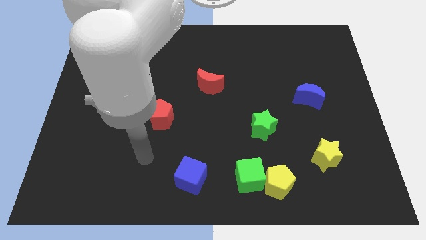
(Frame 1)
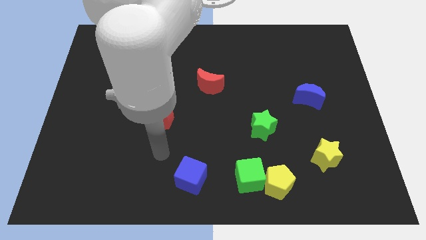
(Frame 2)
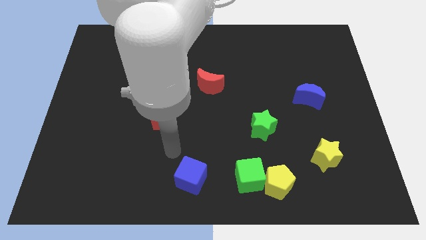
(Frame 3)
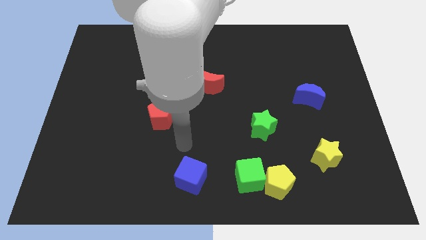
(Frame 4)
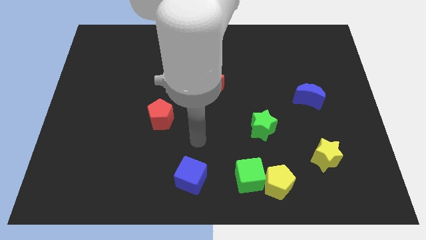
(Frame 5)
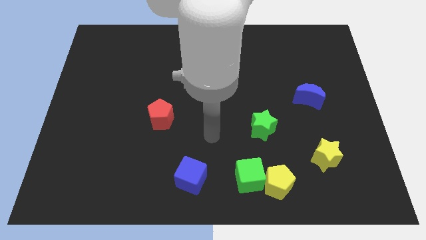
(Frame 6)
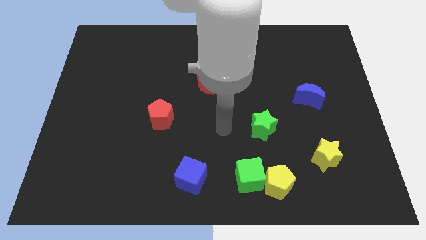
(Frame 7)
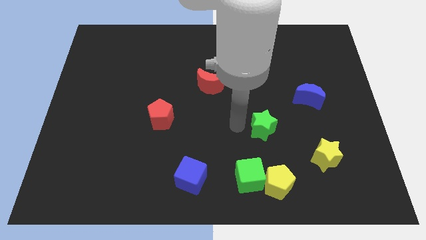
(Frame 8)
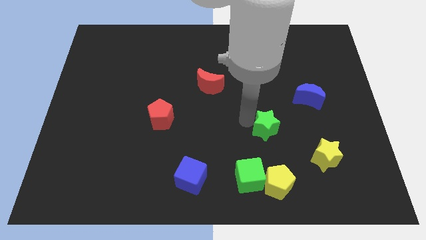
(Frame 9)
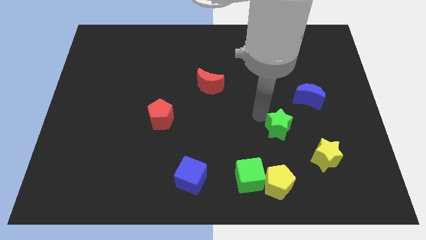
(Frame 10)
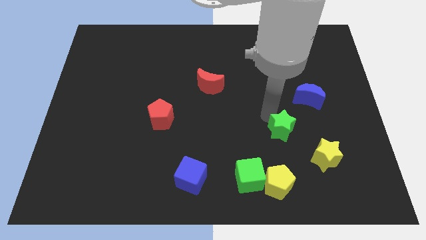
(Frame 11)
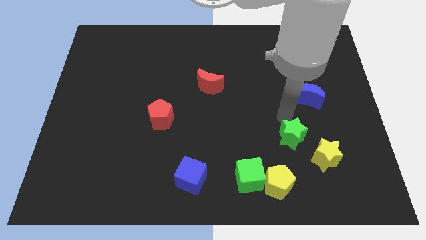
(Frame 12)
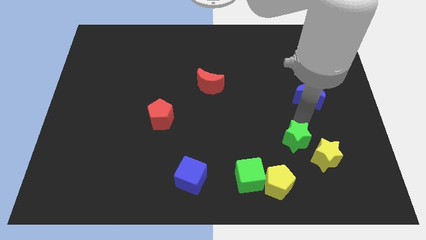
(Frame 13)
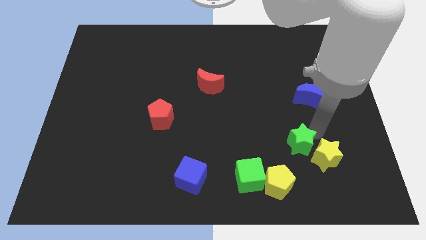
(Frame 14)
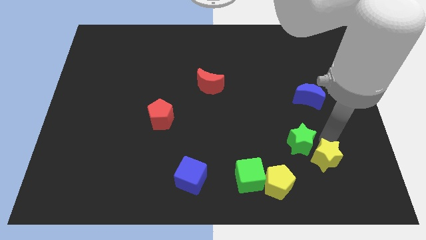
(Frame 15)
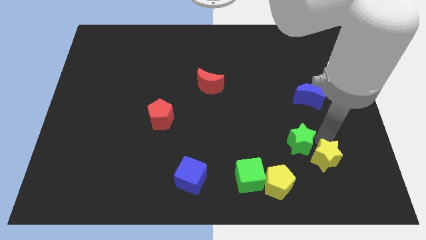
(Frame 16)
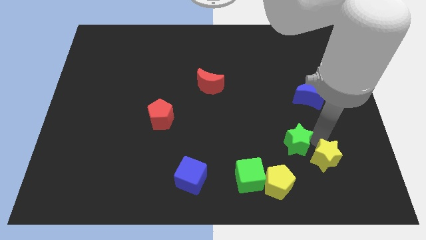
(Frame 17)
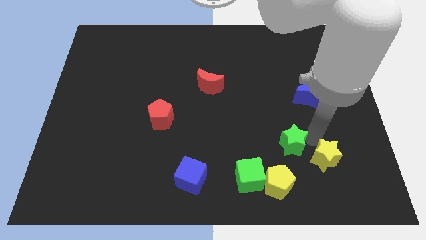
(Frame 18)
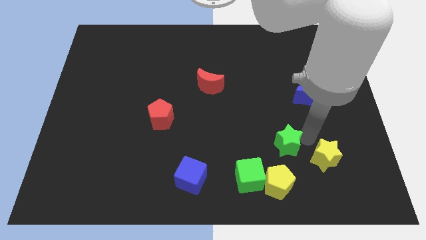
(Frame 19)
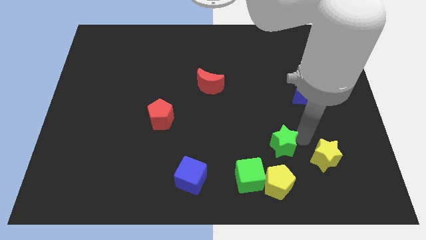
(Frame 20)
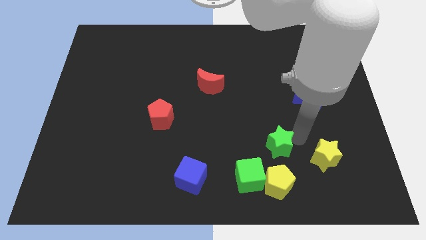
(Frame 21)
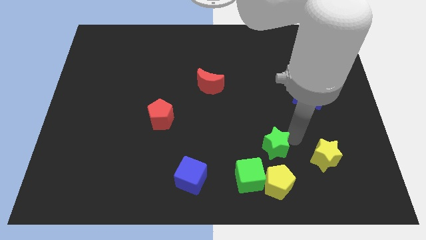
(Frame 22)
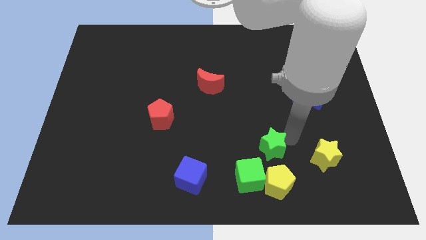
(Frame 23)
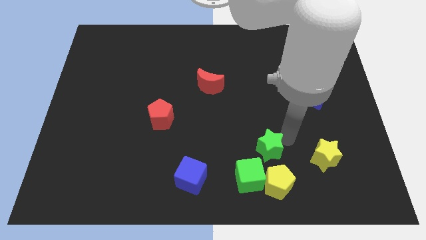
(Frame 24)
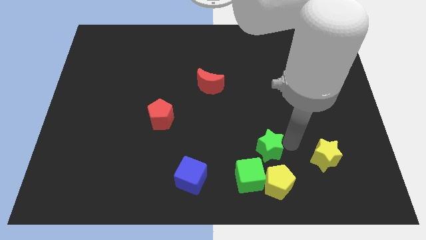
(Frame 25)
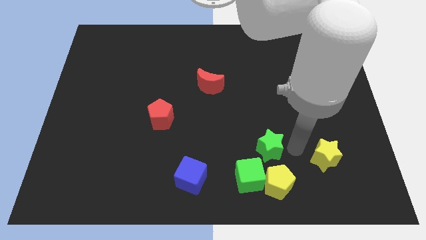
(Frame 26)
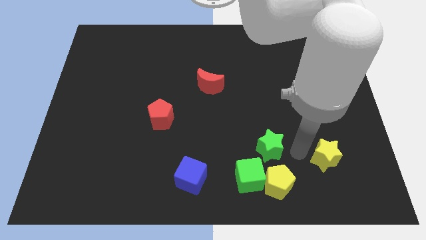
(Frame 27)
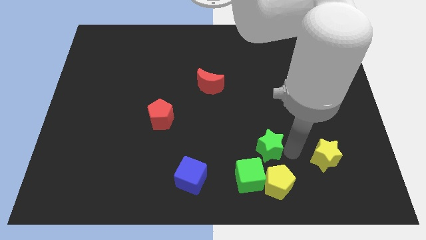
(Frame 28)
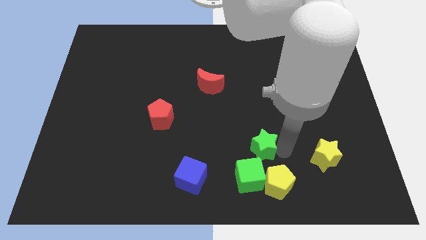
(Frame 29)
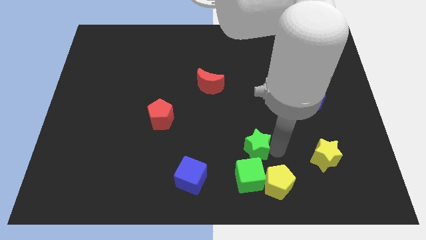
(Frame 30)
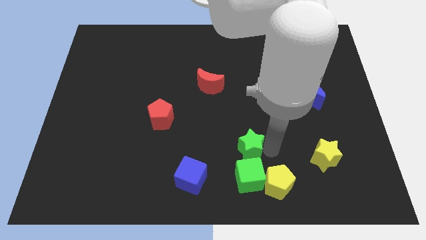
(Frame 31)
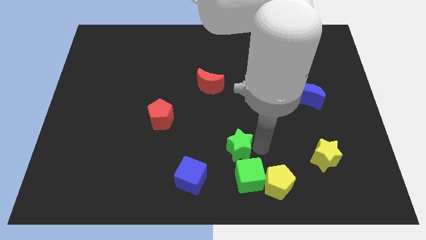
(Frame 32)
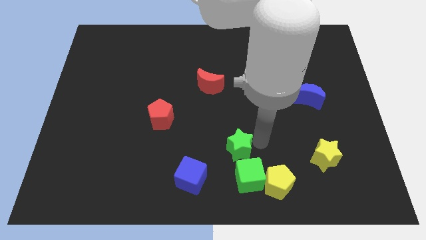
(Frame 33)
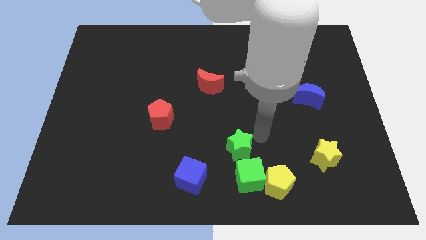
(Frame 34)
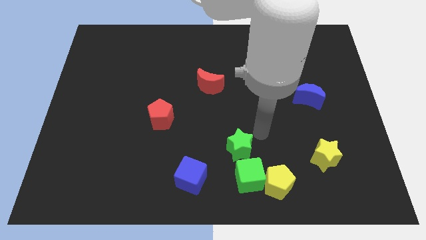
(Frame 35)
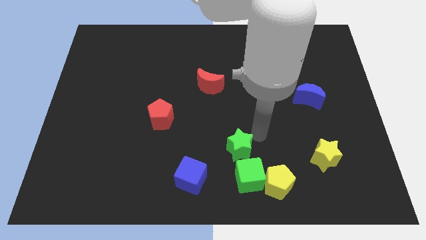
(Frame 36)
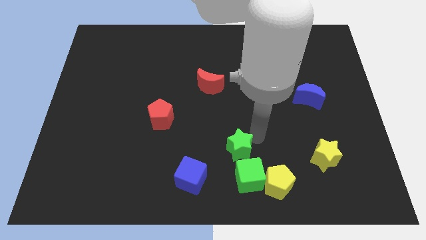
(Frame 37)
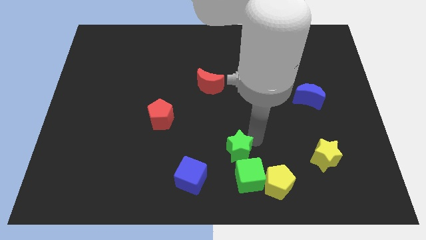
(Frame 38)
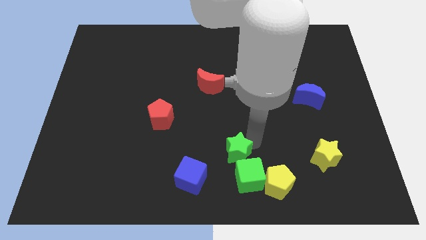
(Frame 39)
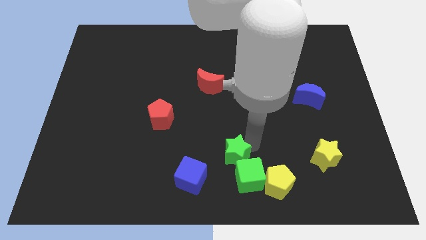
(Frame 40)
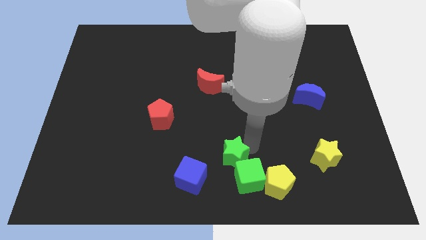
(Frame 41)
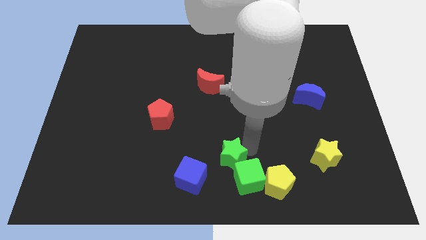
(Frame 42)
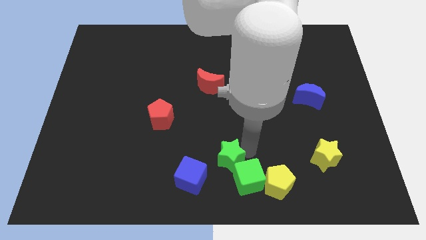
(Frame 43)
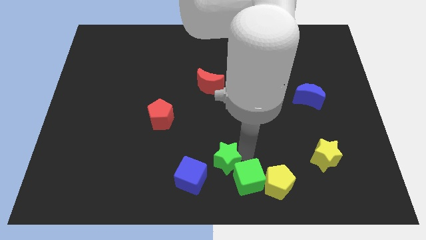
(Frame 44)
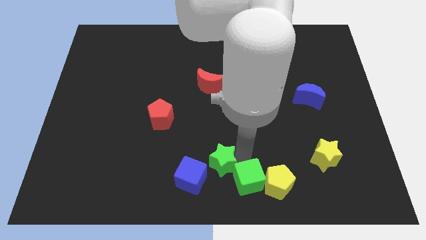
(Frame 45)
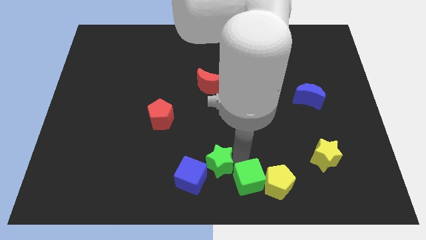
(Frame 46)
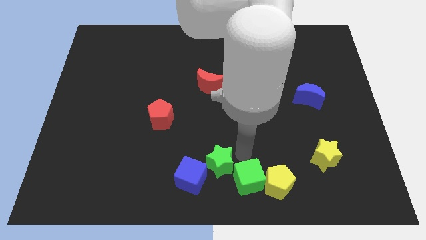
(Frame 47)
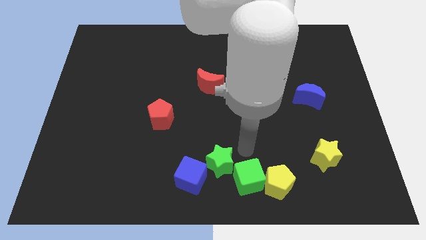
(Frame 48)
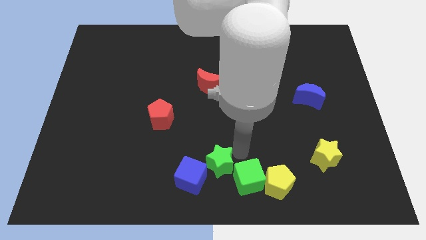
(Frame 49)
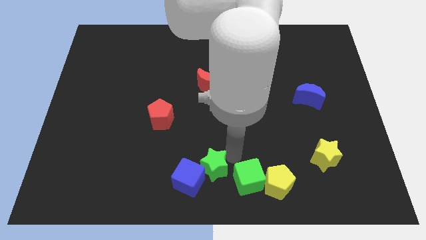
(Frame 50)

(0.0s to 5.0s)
slide the green star next to the blue cube

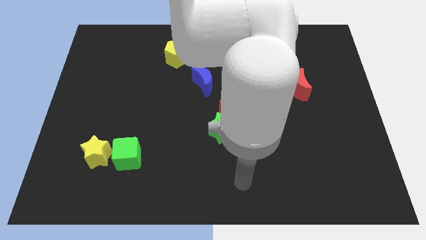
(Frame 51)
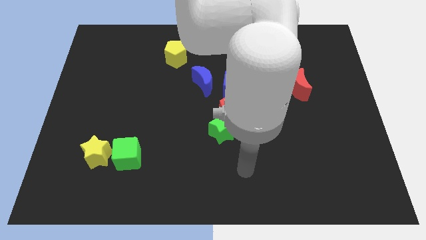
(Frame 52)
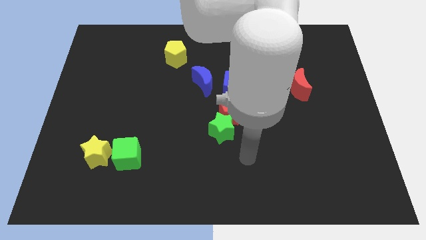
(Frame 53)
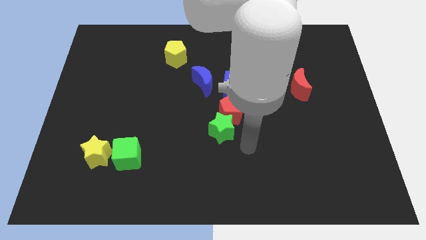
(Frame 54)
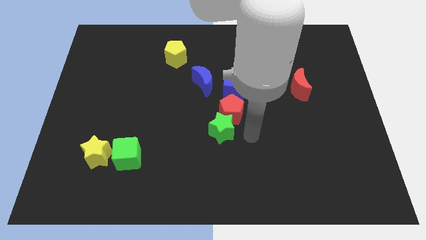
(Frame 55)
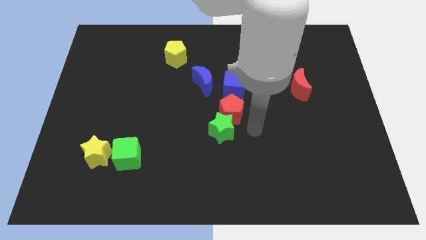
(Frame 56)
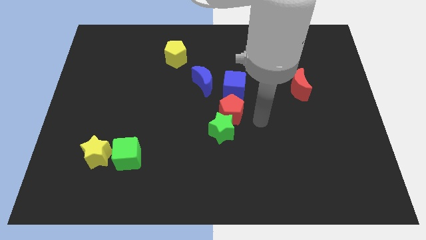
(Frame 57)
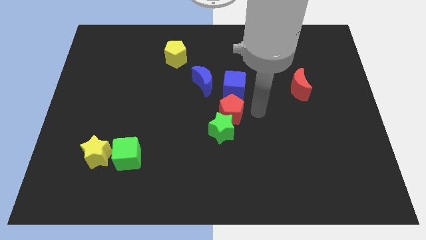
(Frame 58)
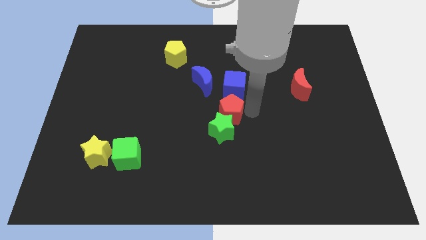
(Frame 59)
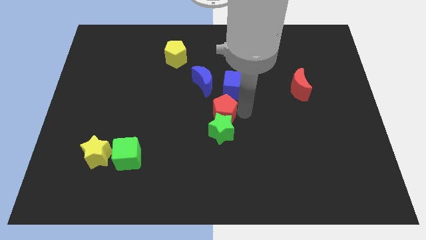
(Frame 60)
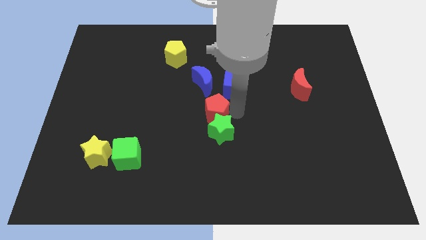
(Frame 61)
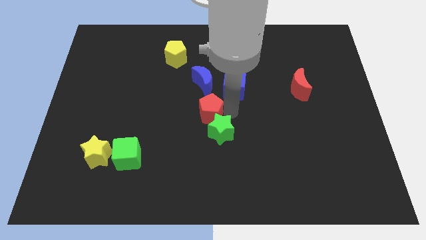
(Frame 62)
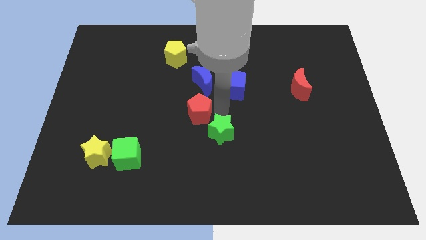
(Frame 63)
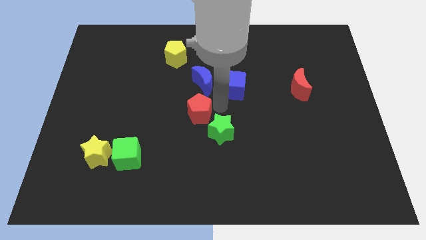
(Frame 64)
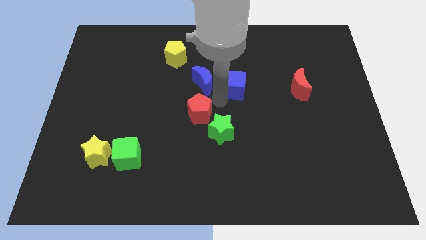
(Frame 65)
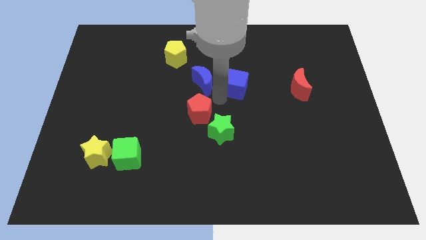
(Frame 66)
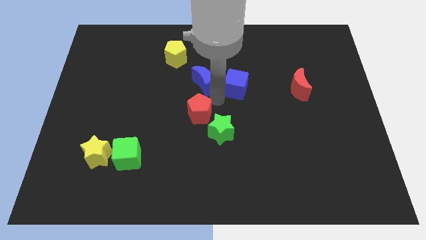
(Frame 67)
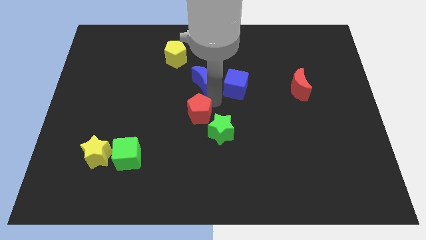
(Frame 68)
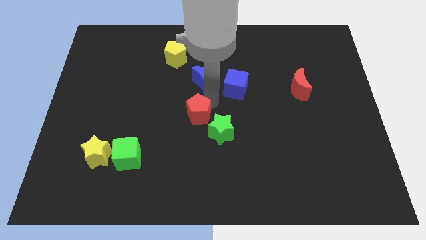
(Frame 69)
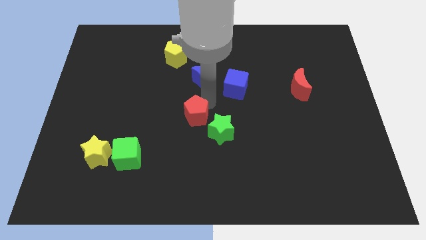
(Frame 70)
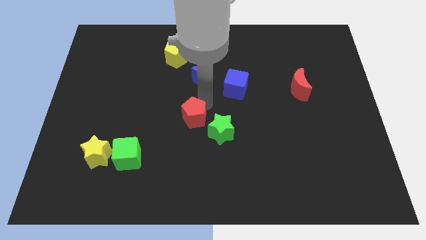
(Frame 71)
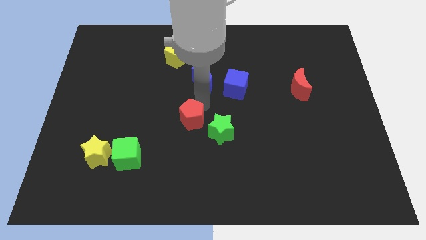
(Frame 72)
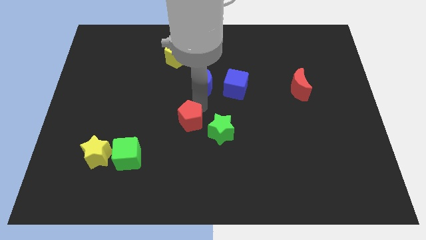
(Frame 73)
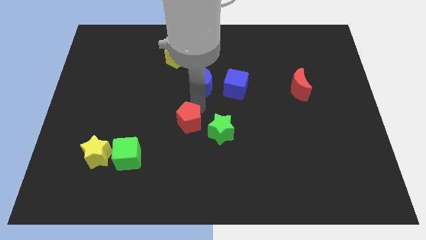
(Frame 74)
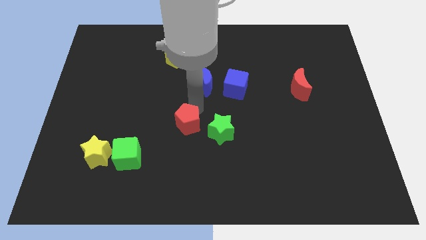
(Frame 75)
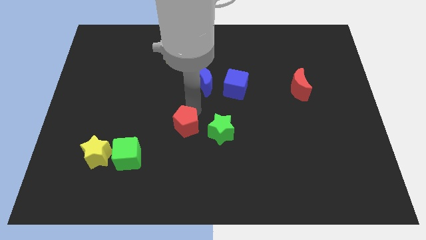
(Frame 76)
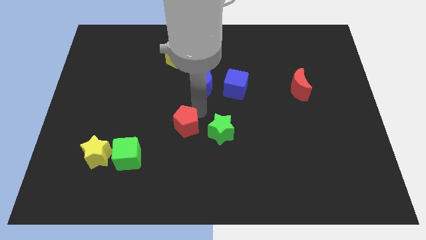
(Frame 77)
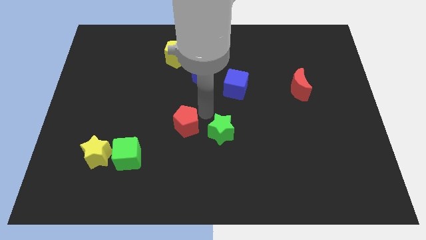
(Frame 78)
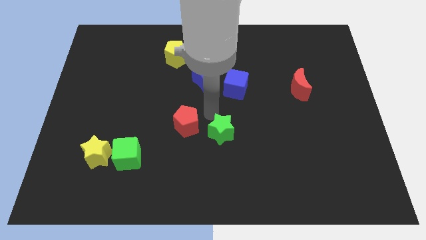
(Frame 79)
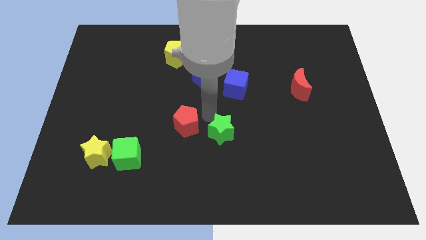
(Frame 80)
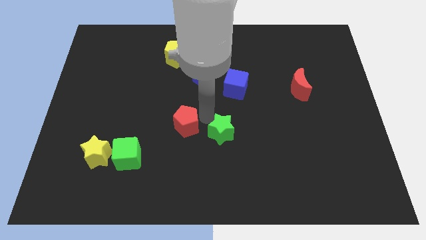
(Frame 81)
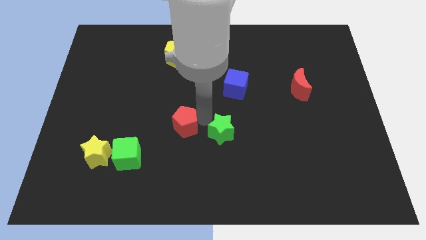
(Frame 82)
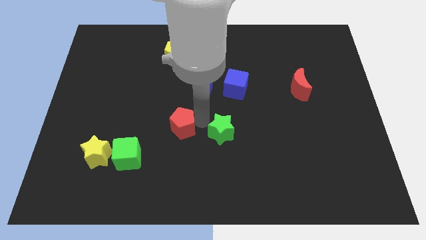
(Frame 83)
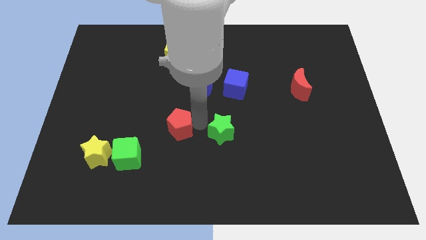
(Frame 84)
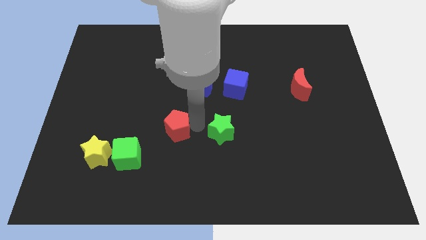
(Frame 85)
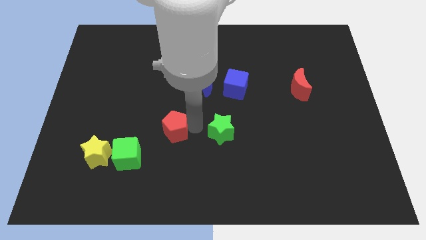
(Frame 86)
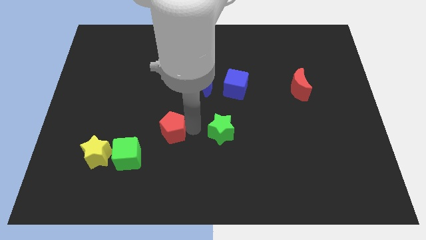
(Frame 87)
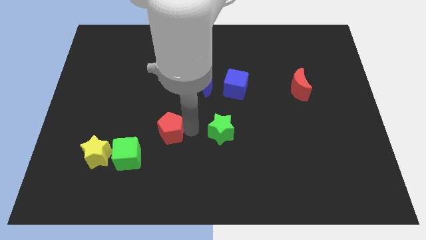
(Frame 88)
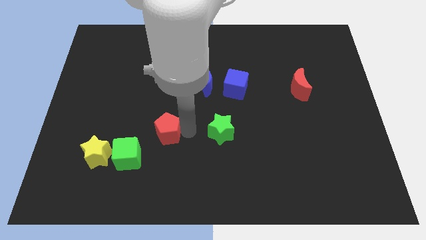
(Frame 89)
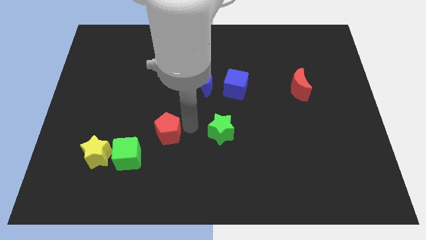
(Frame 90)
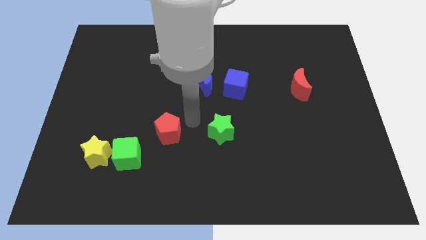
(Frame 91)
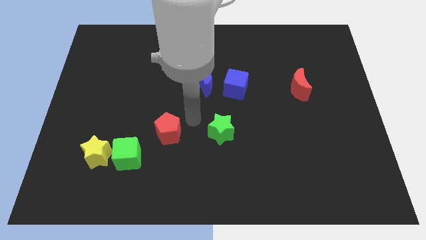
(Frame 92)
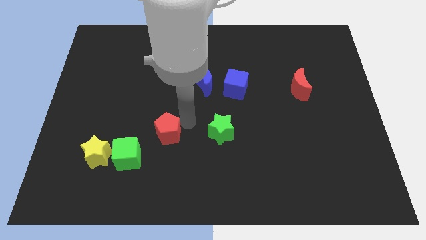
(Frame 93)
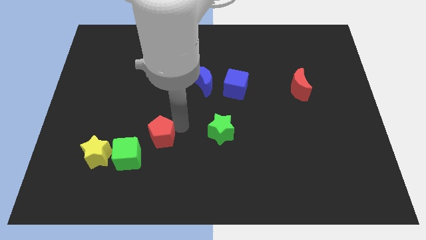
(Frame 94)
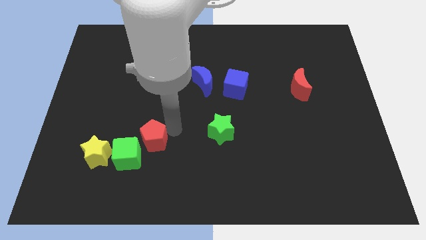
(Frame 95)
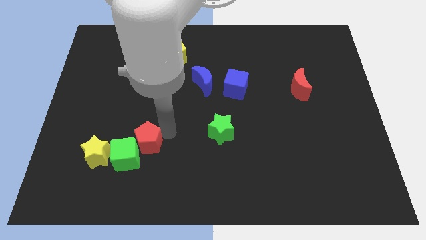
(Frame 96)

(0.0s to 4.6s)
slide the red pentagon towards the green cube
